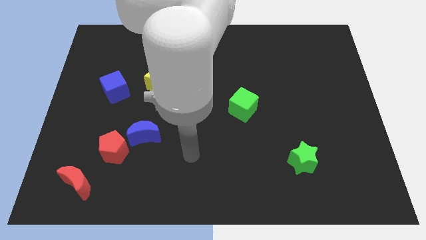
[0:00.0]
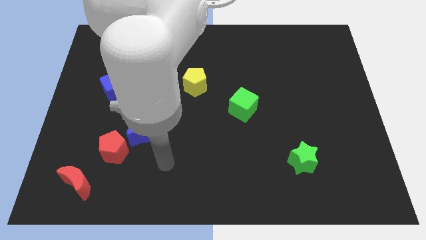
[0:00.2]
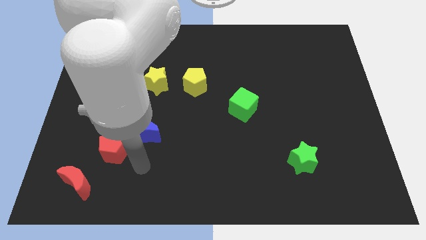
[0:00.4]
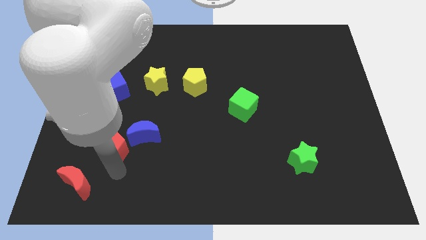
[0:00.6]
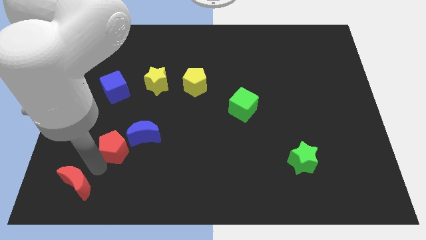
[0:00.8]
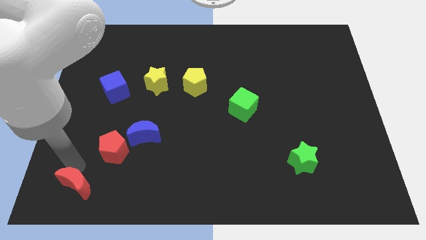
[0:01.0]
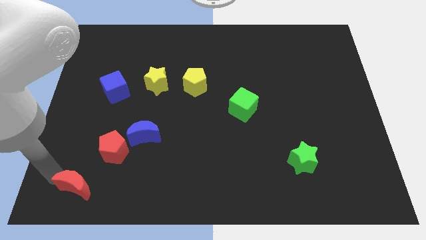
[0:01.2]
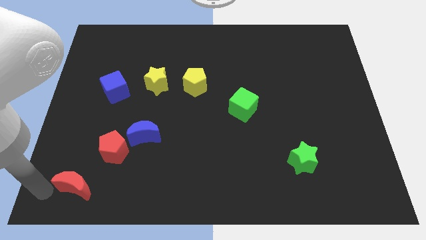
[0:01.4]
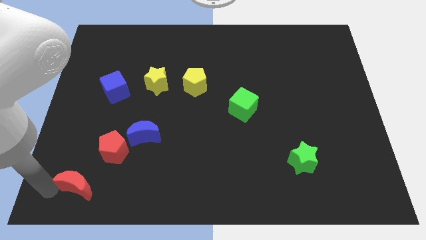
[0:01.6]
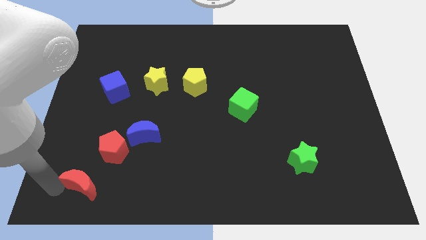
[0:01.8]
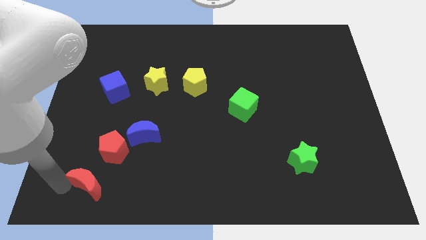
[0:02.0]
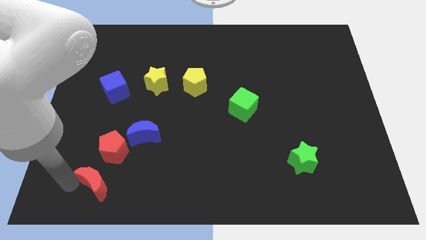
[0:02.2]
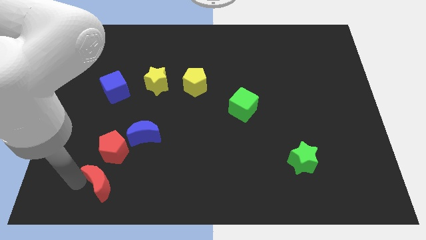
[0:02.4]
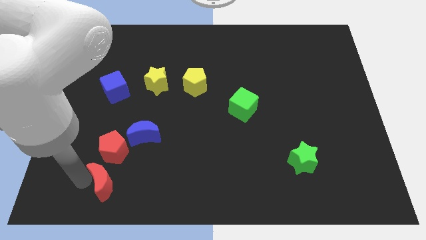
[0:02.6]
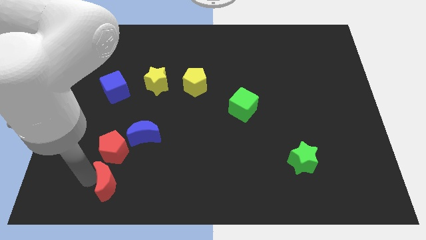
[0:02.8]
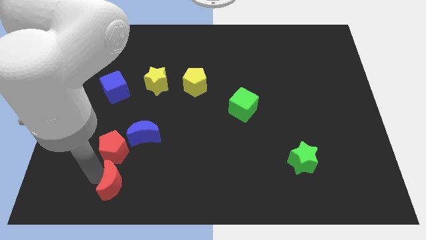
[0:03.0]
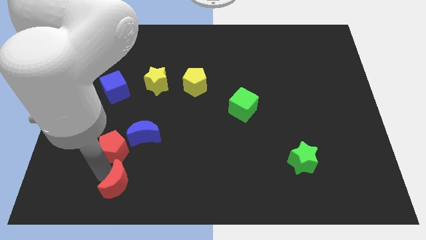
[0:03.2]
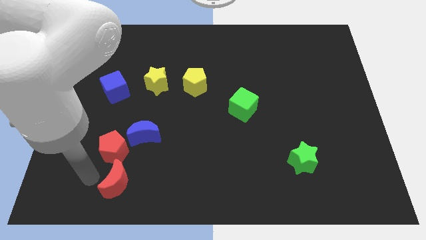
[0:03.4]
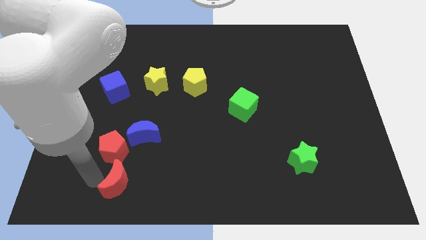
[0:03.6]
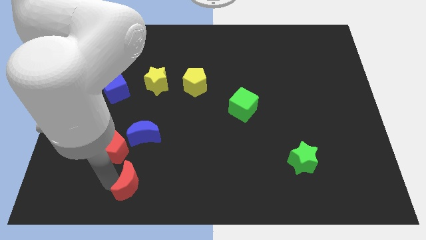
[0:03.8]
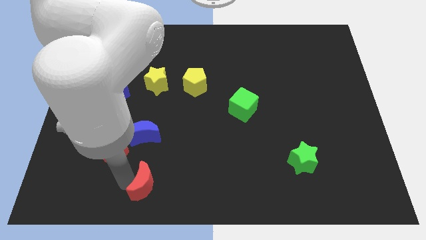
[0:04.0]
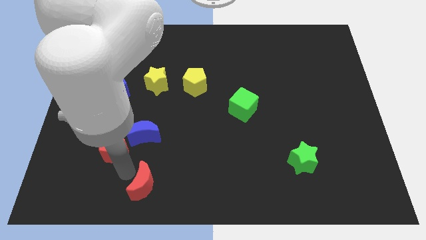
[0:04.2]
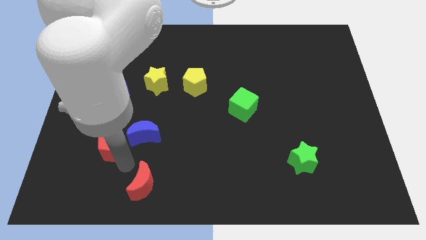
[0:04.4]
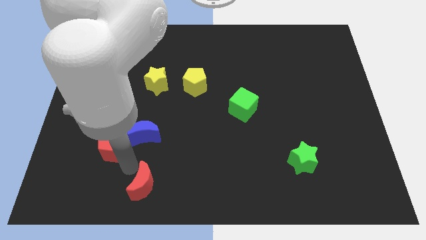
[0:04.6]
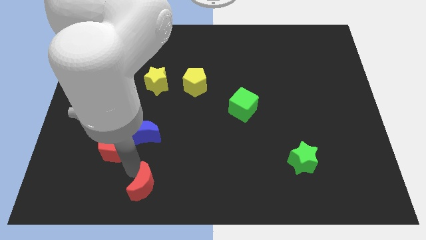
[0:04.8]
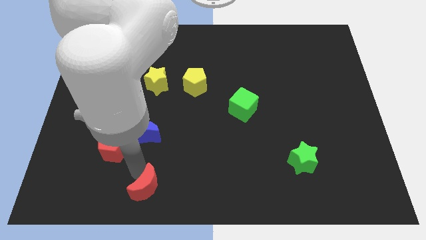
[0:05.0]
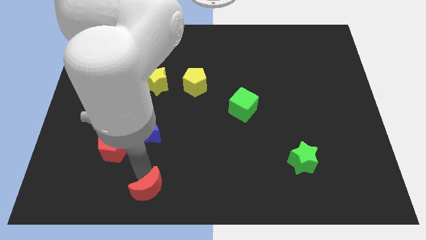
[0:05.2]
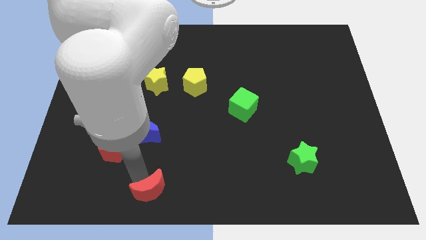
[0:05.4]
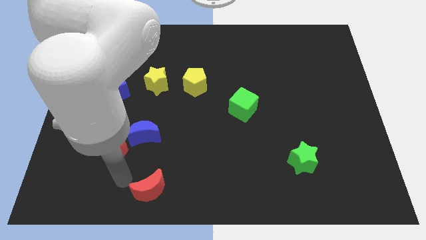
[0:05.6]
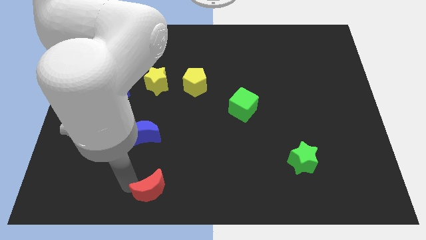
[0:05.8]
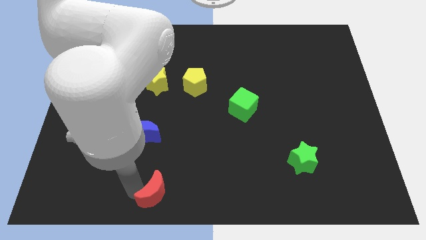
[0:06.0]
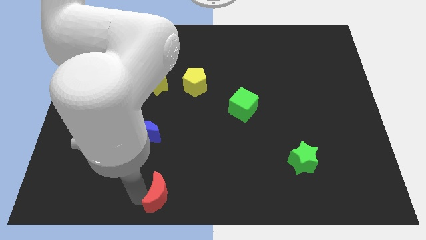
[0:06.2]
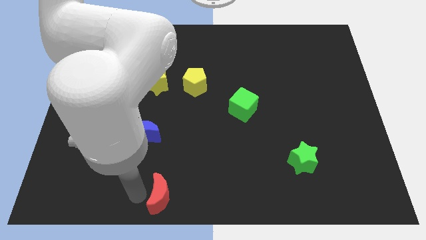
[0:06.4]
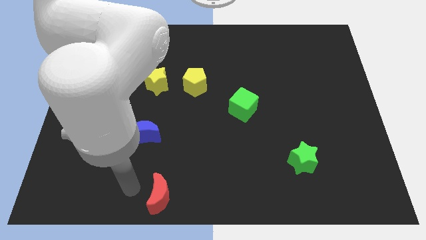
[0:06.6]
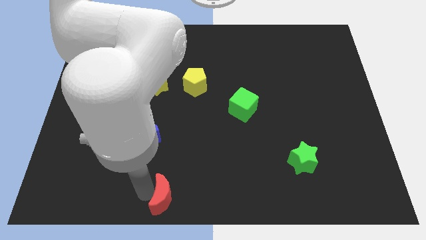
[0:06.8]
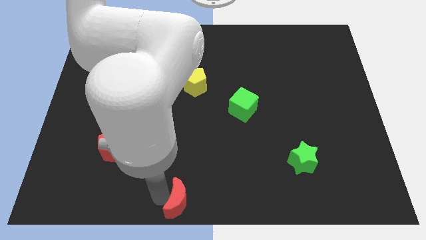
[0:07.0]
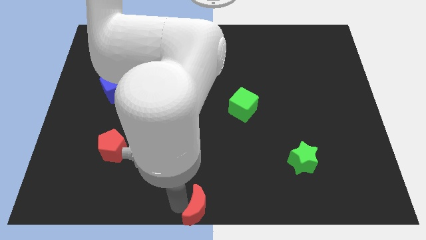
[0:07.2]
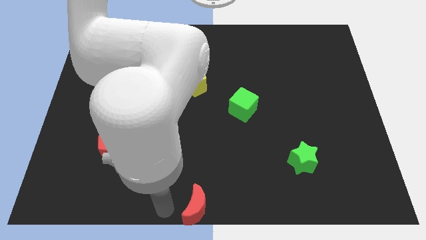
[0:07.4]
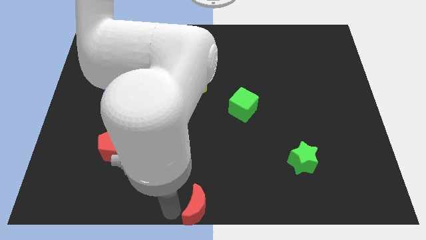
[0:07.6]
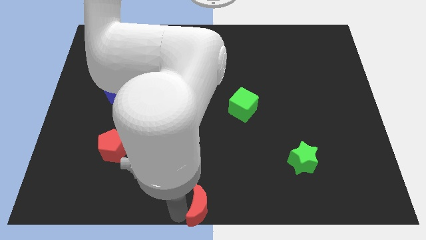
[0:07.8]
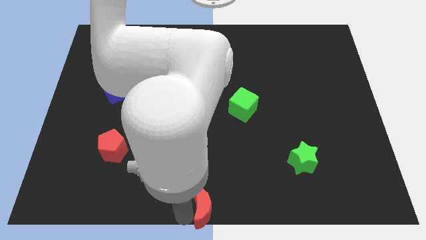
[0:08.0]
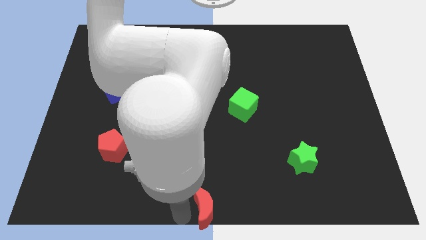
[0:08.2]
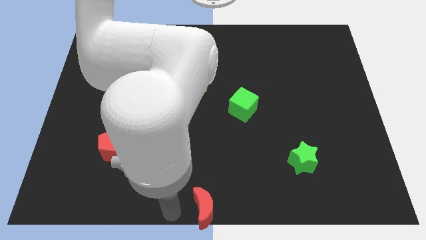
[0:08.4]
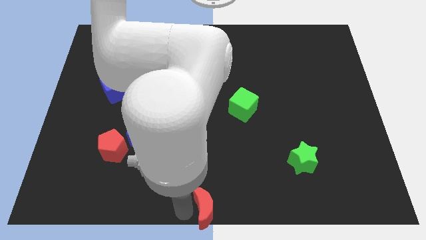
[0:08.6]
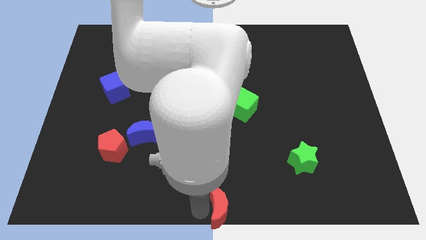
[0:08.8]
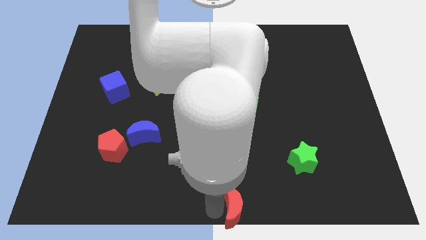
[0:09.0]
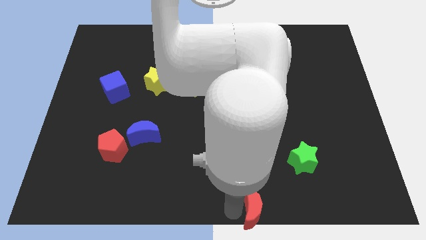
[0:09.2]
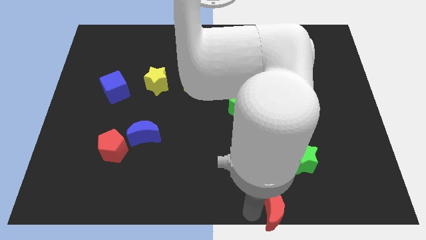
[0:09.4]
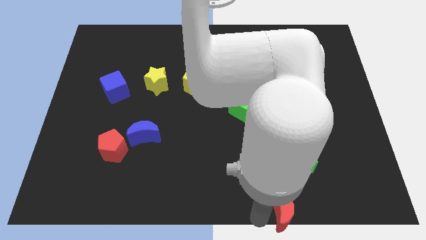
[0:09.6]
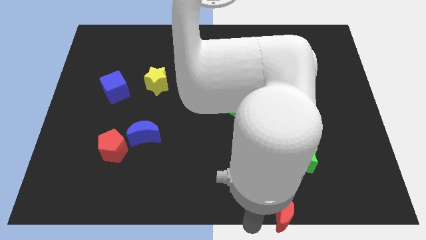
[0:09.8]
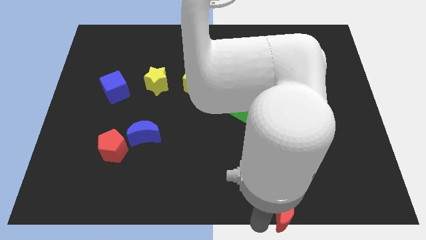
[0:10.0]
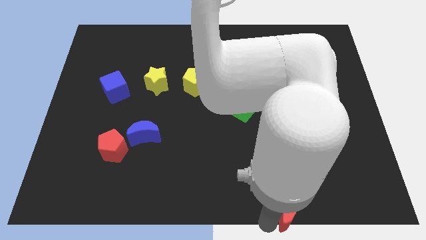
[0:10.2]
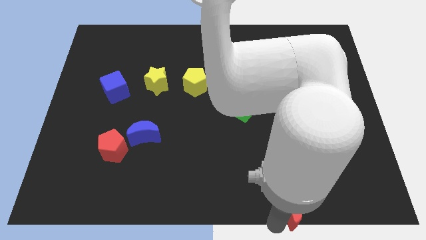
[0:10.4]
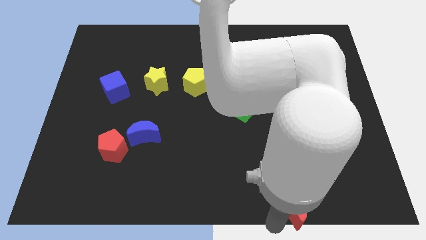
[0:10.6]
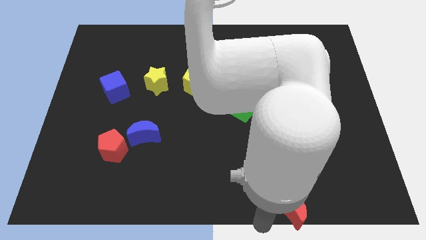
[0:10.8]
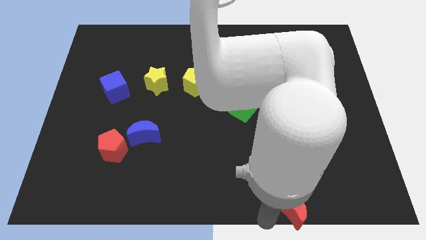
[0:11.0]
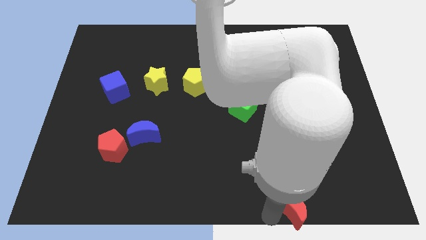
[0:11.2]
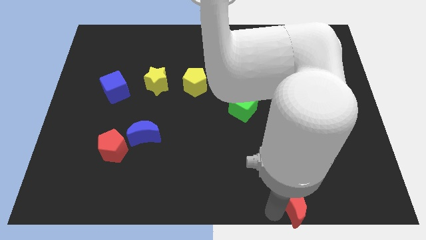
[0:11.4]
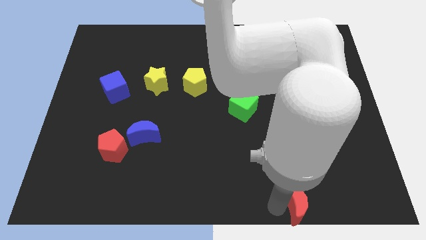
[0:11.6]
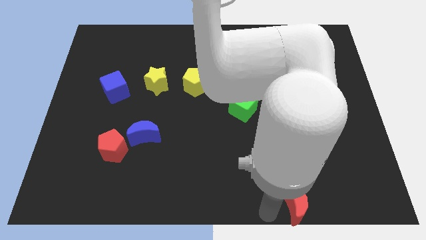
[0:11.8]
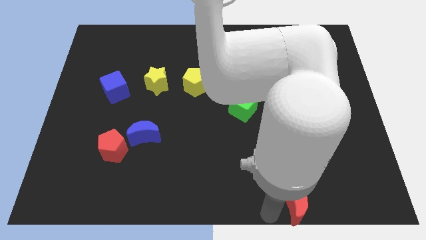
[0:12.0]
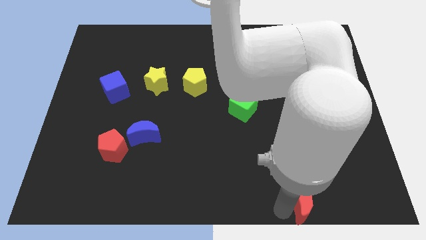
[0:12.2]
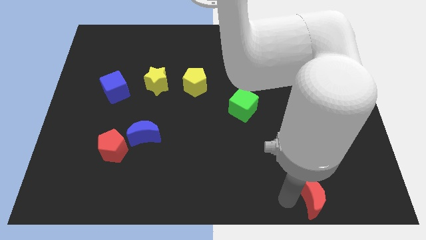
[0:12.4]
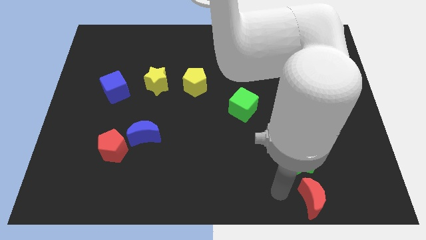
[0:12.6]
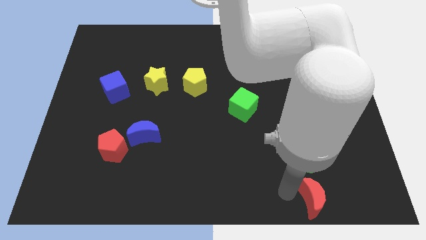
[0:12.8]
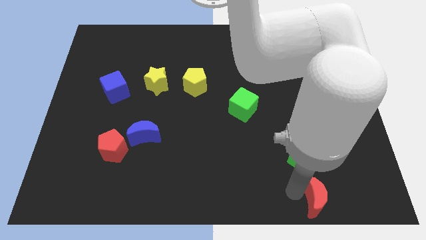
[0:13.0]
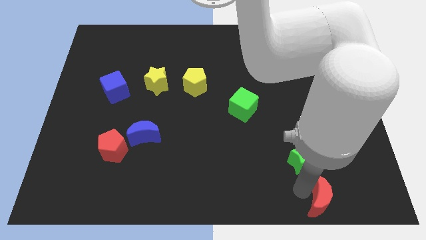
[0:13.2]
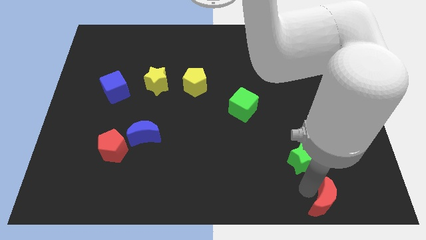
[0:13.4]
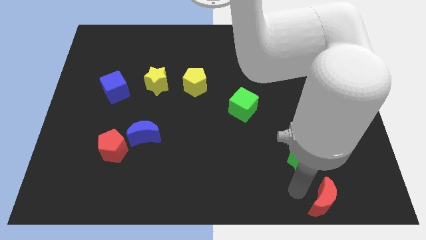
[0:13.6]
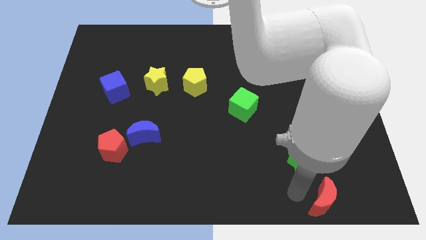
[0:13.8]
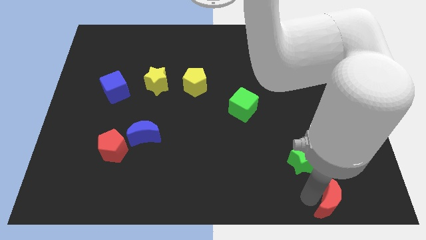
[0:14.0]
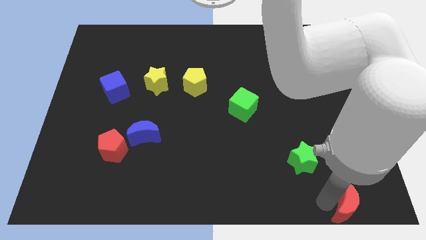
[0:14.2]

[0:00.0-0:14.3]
move the red moon to the bottom right of the board
